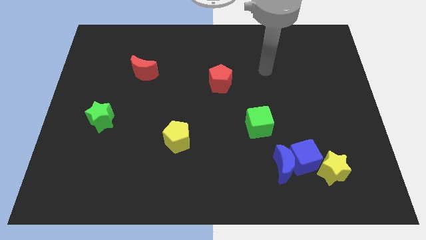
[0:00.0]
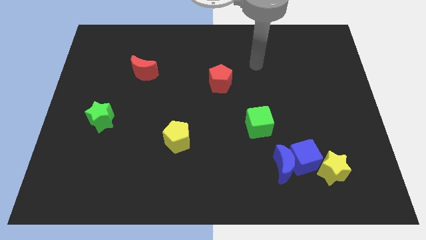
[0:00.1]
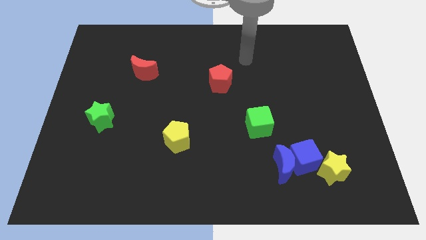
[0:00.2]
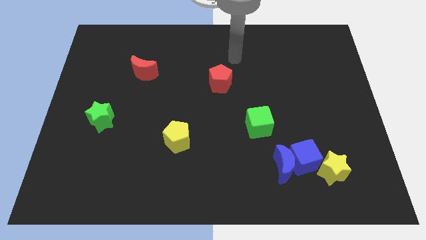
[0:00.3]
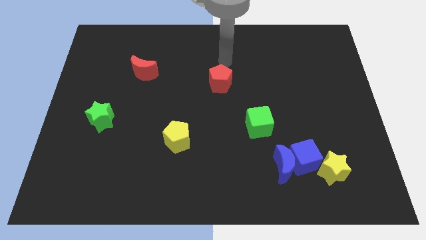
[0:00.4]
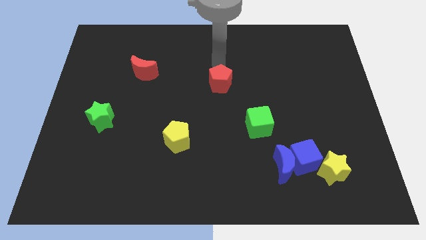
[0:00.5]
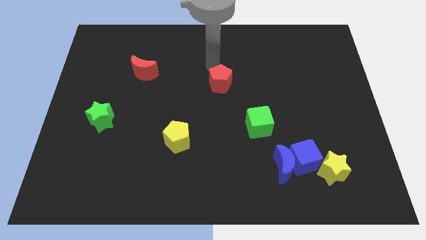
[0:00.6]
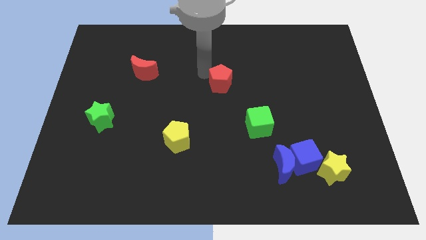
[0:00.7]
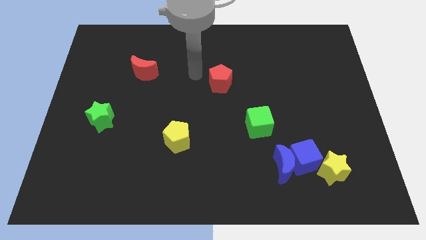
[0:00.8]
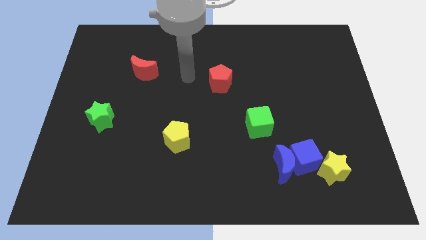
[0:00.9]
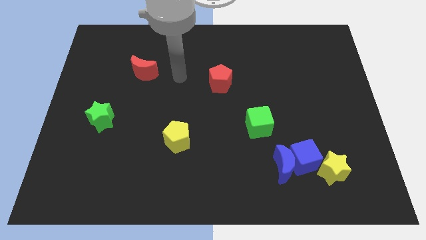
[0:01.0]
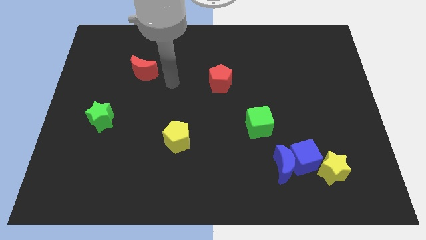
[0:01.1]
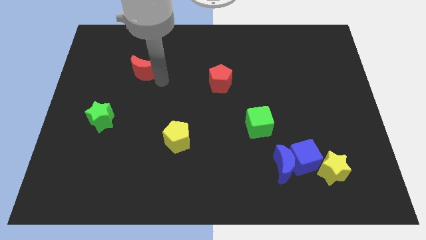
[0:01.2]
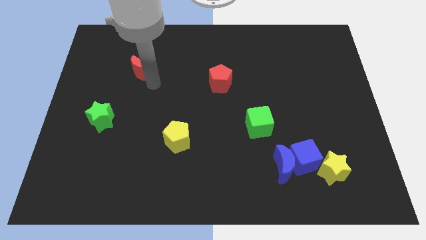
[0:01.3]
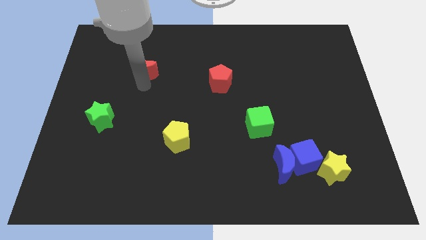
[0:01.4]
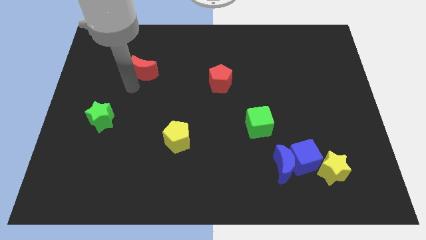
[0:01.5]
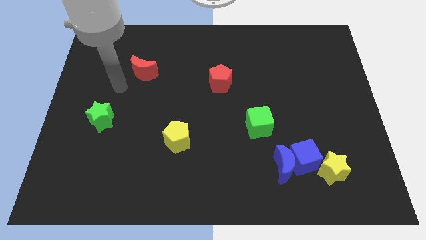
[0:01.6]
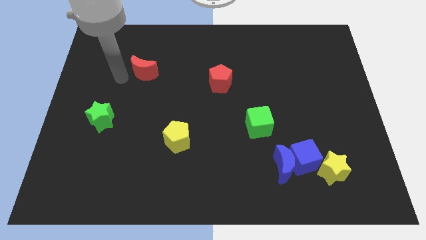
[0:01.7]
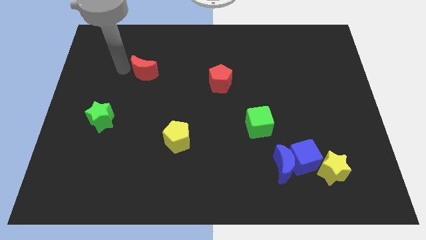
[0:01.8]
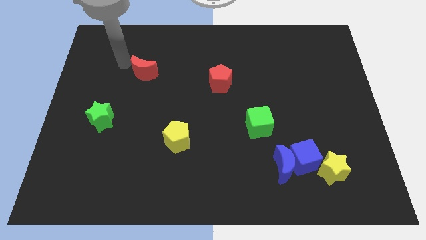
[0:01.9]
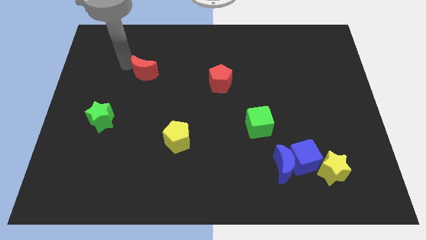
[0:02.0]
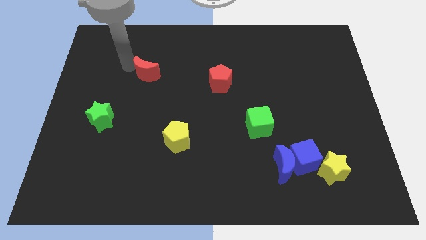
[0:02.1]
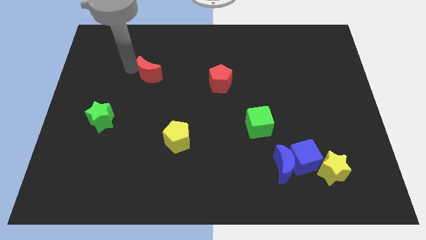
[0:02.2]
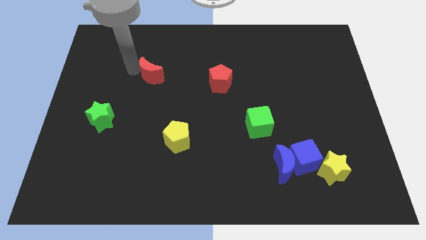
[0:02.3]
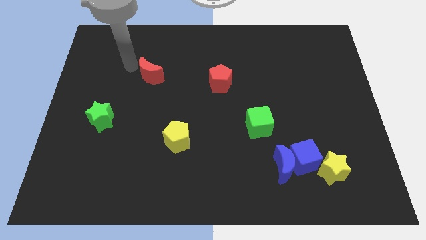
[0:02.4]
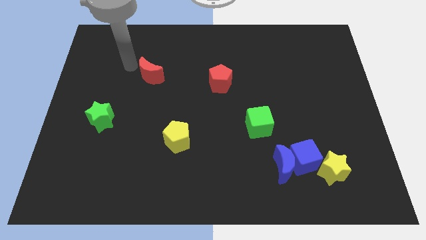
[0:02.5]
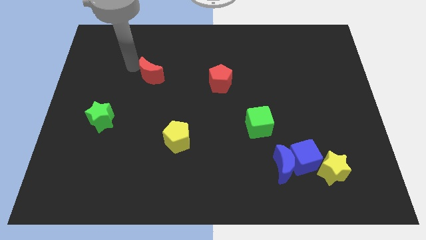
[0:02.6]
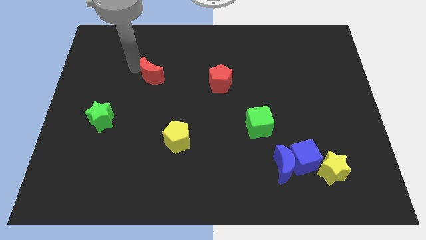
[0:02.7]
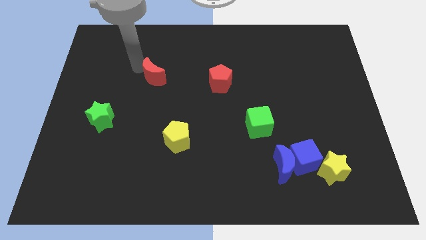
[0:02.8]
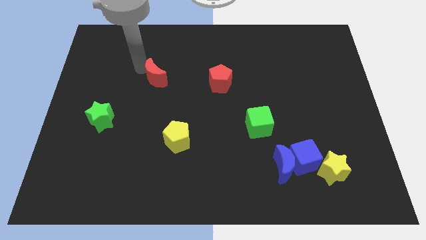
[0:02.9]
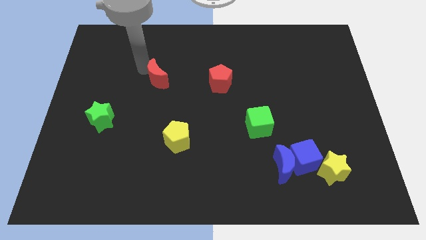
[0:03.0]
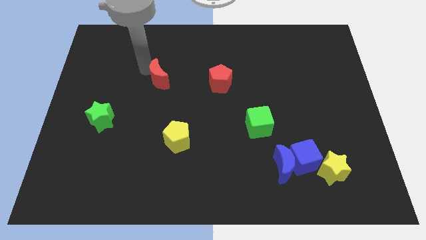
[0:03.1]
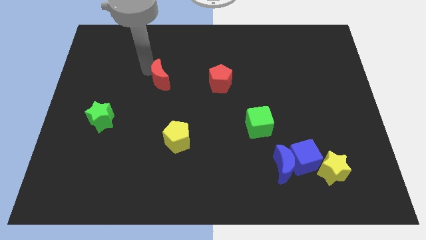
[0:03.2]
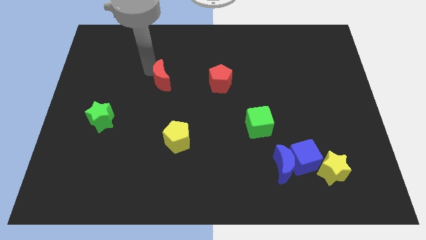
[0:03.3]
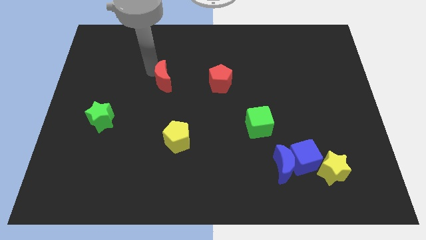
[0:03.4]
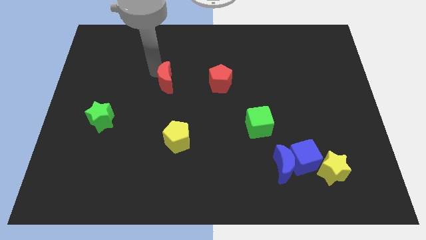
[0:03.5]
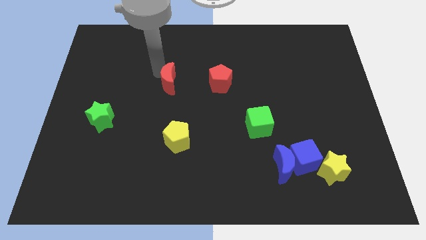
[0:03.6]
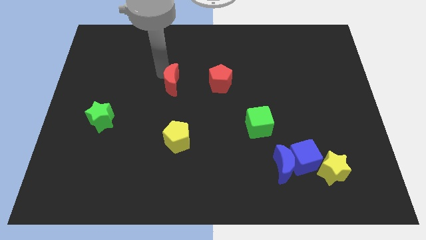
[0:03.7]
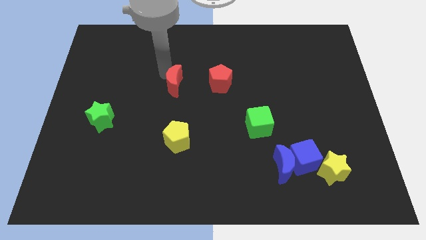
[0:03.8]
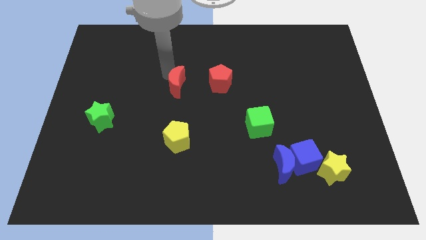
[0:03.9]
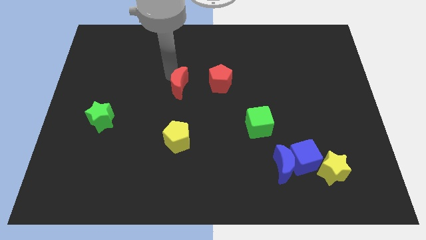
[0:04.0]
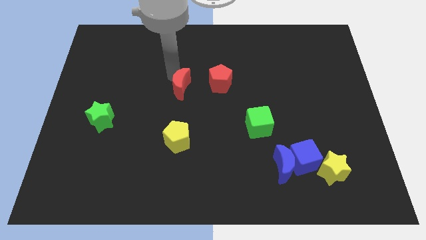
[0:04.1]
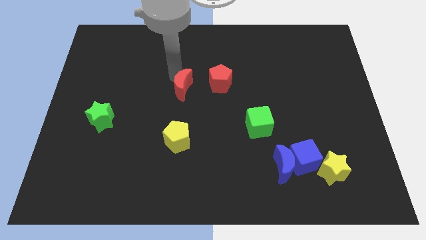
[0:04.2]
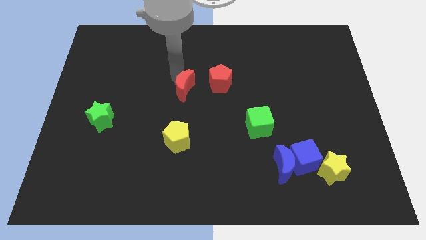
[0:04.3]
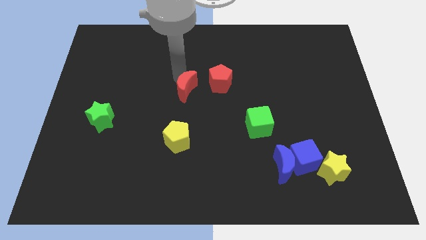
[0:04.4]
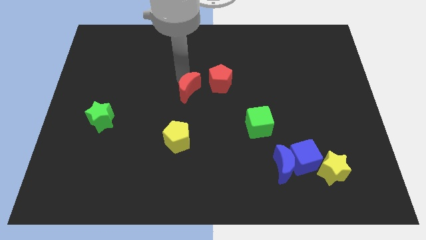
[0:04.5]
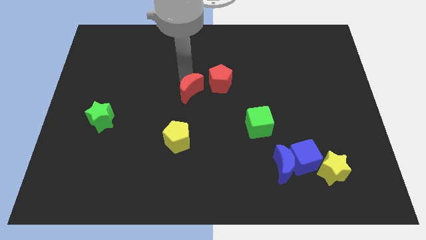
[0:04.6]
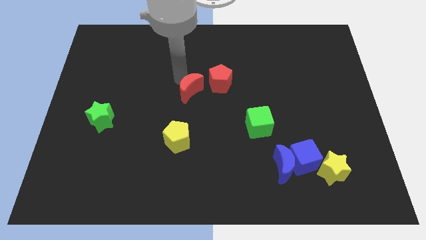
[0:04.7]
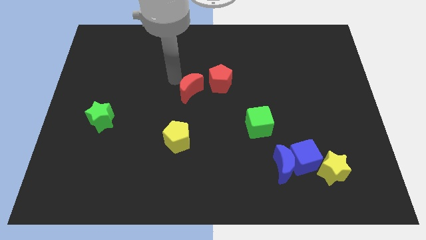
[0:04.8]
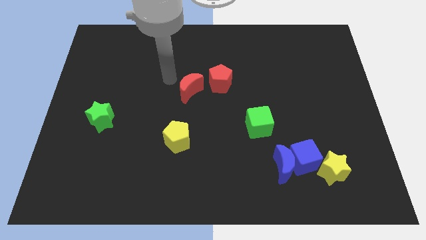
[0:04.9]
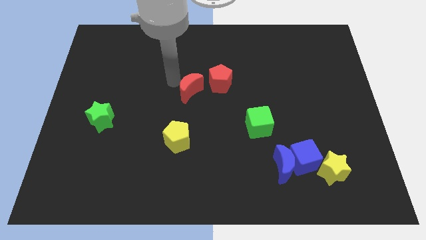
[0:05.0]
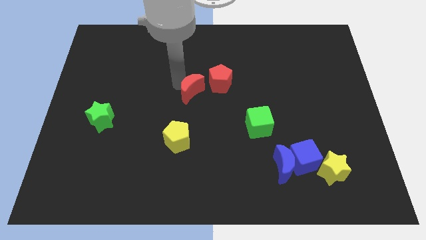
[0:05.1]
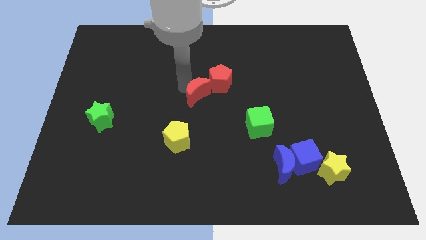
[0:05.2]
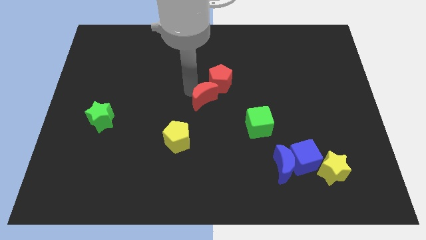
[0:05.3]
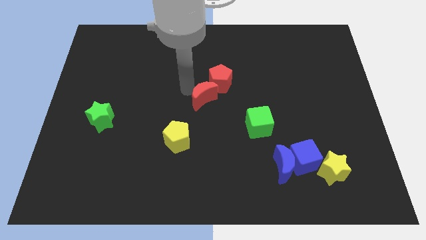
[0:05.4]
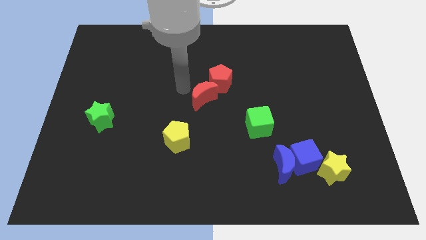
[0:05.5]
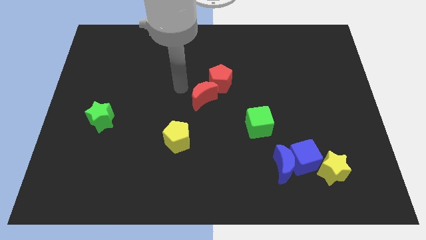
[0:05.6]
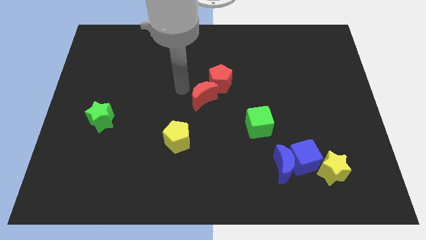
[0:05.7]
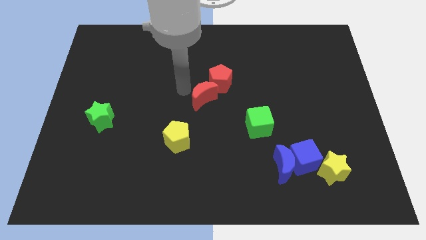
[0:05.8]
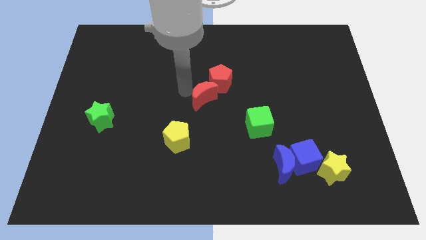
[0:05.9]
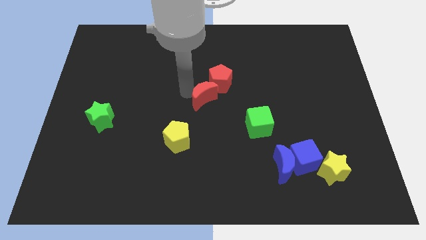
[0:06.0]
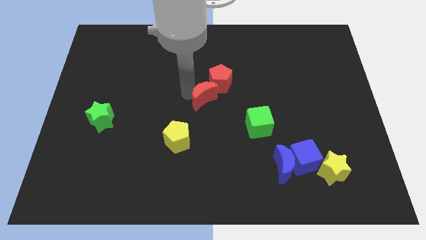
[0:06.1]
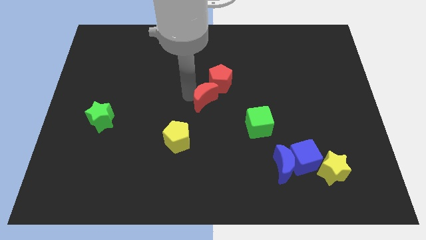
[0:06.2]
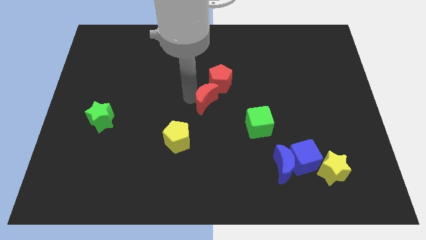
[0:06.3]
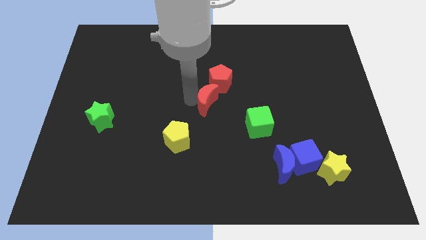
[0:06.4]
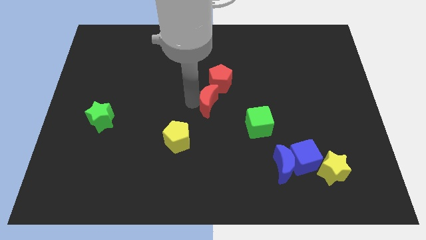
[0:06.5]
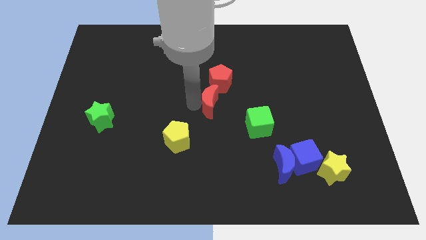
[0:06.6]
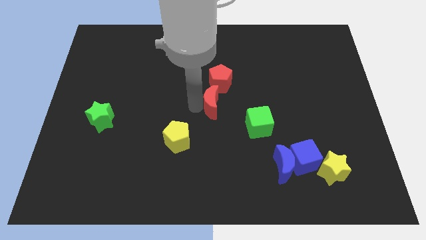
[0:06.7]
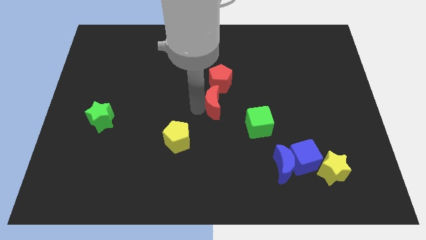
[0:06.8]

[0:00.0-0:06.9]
put the red moon to the top left side of the green cube

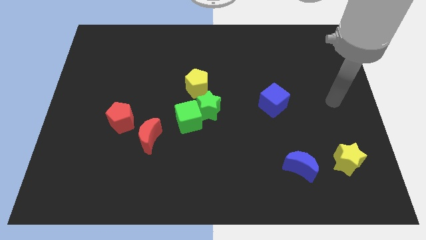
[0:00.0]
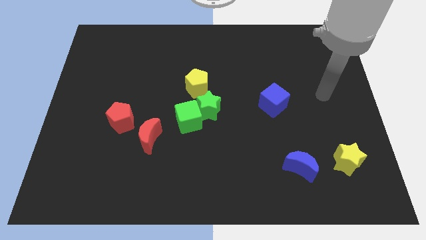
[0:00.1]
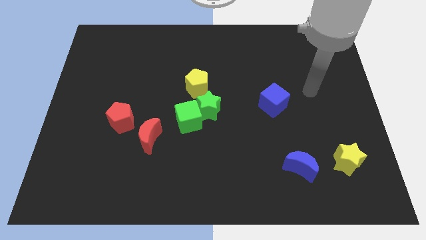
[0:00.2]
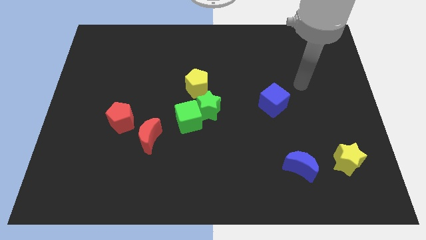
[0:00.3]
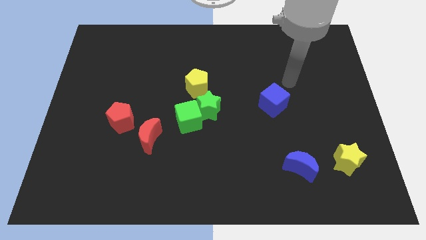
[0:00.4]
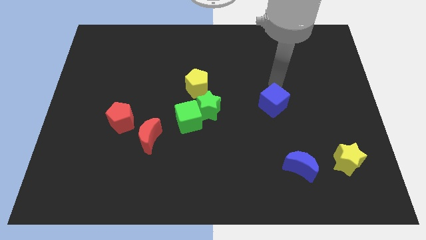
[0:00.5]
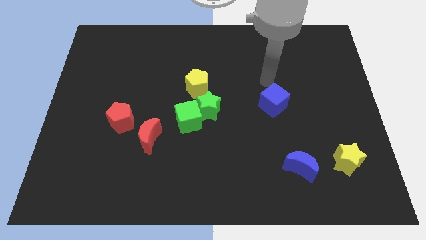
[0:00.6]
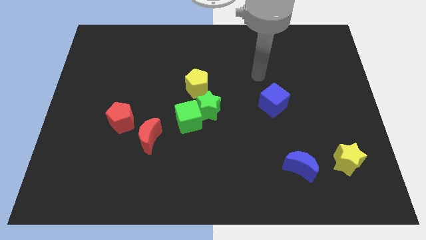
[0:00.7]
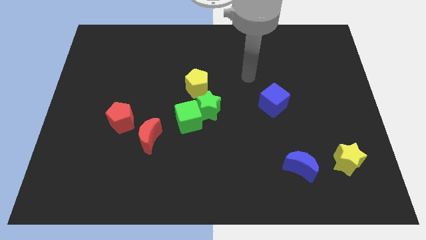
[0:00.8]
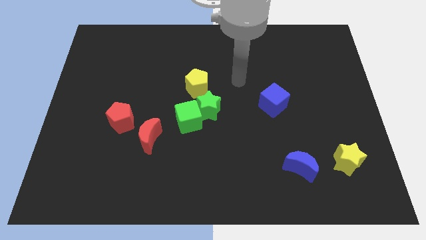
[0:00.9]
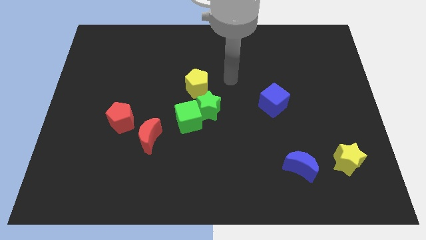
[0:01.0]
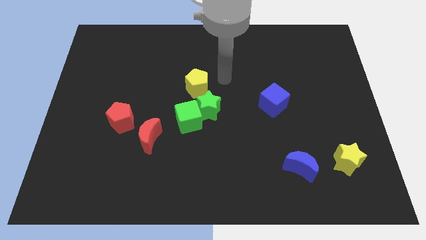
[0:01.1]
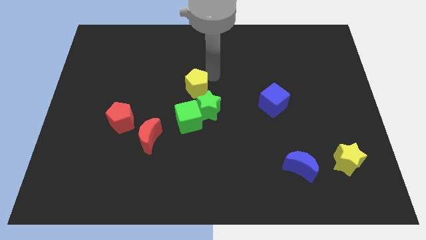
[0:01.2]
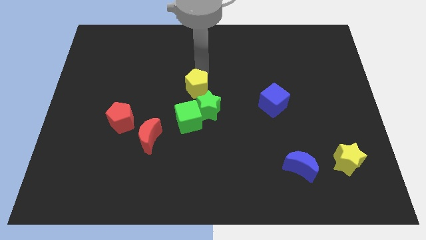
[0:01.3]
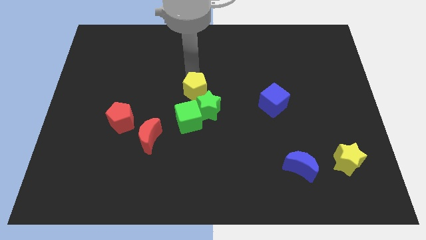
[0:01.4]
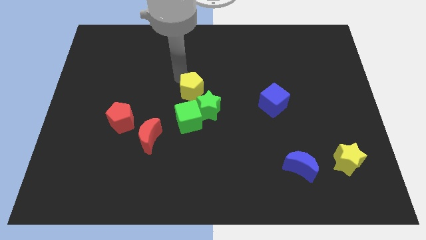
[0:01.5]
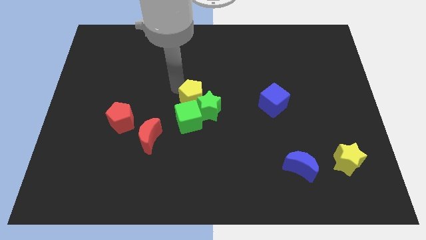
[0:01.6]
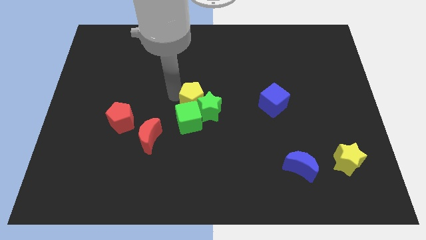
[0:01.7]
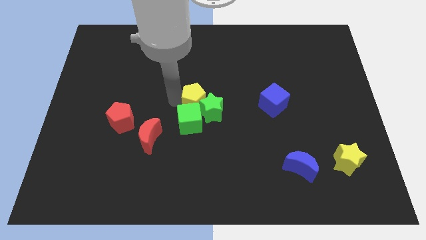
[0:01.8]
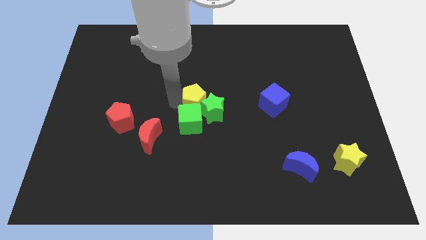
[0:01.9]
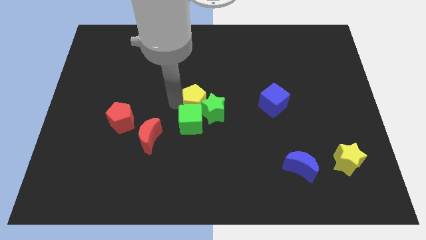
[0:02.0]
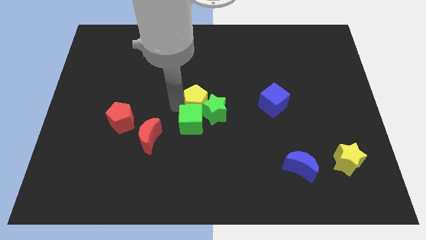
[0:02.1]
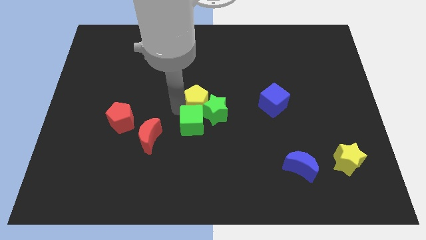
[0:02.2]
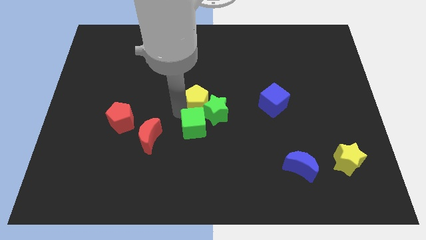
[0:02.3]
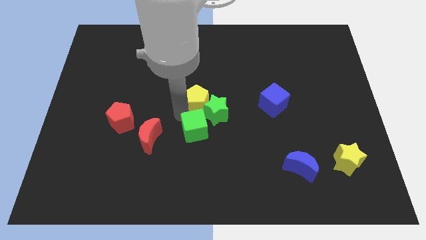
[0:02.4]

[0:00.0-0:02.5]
push the green cube to the bottom side of the green star
